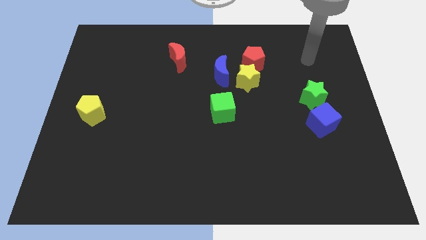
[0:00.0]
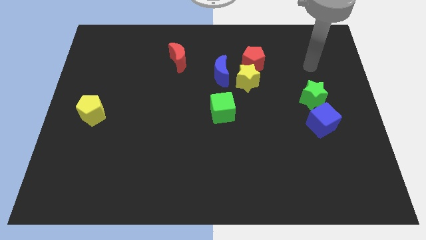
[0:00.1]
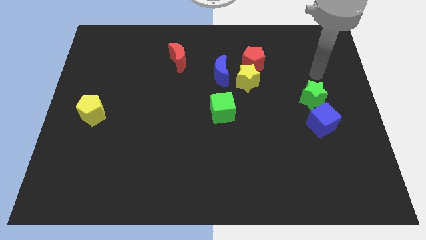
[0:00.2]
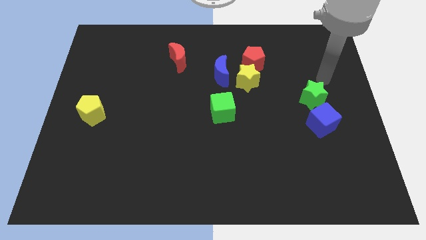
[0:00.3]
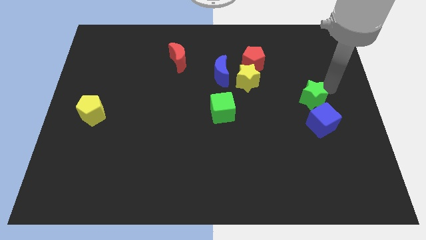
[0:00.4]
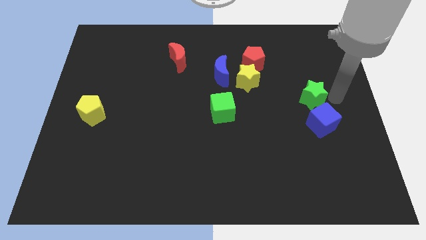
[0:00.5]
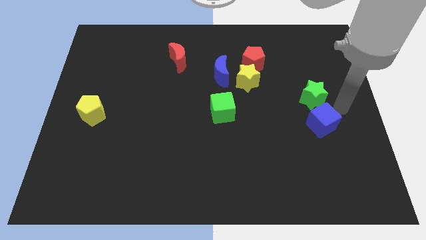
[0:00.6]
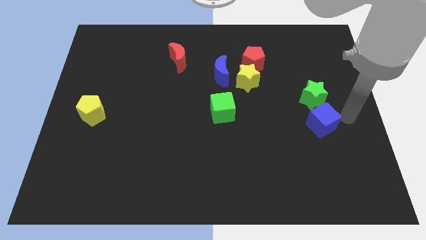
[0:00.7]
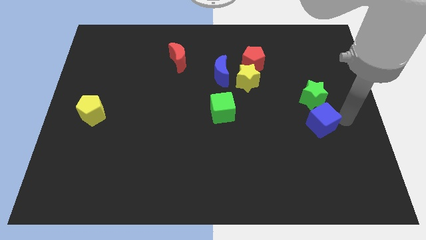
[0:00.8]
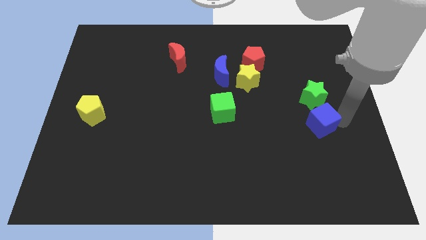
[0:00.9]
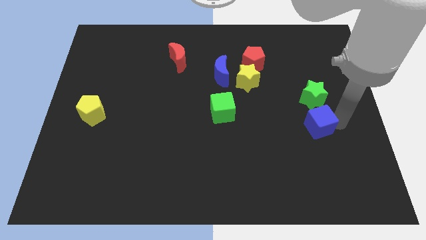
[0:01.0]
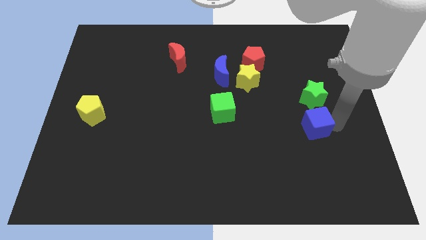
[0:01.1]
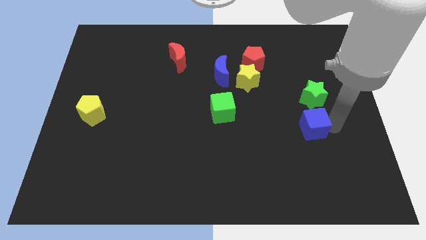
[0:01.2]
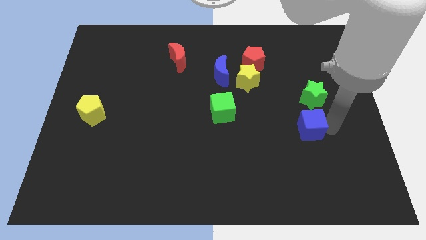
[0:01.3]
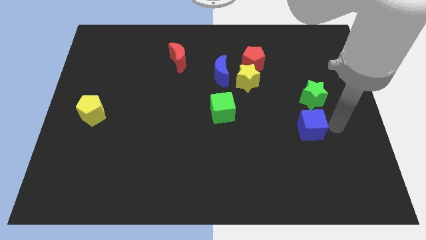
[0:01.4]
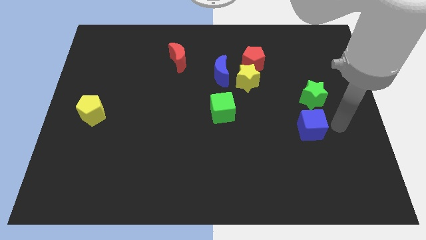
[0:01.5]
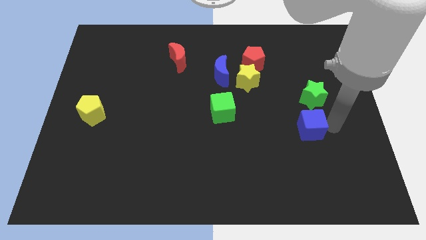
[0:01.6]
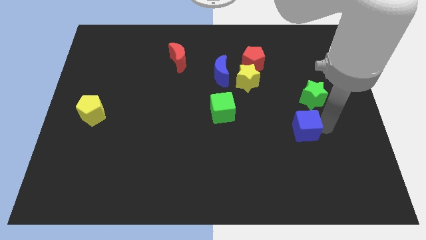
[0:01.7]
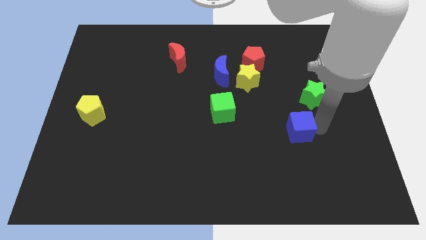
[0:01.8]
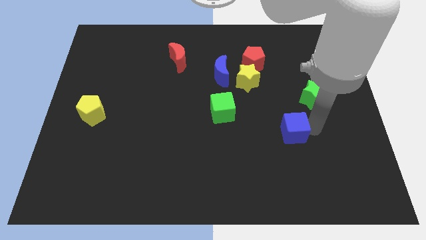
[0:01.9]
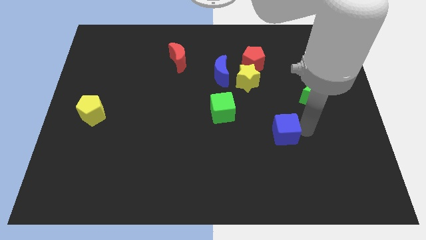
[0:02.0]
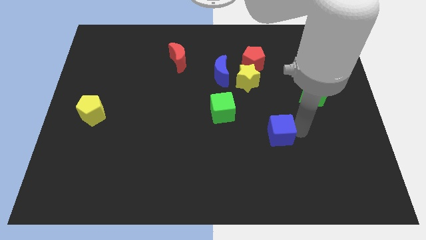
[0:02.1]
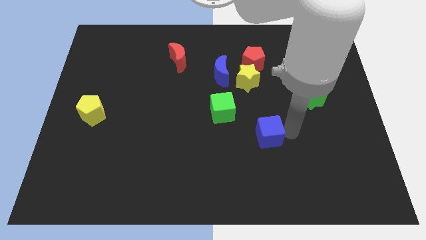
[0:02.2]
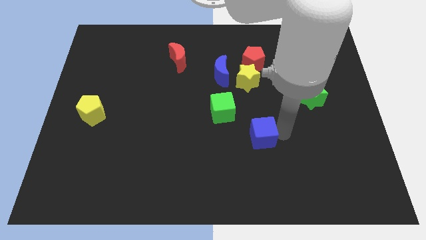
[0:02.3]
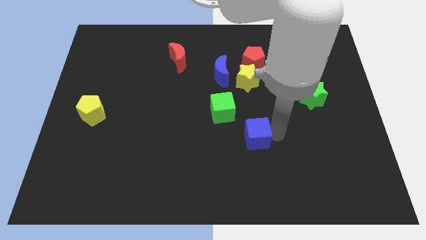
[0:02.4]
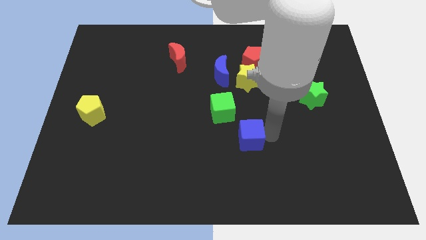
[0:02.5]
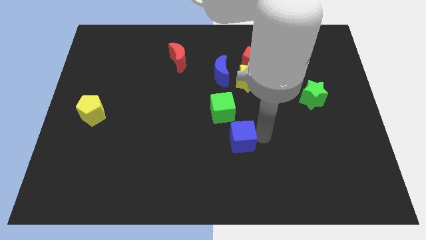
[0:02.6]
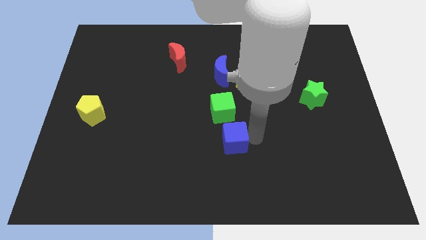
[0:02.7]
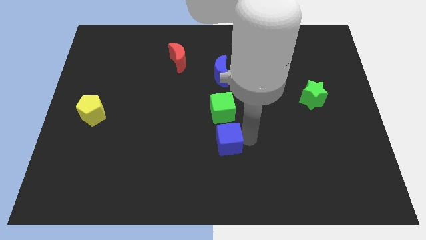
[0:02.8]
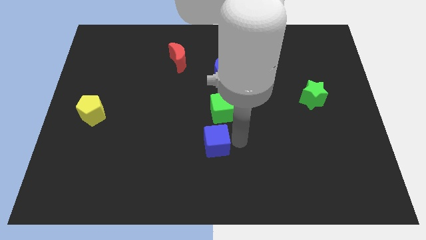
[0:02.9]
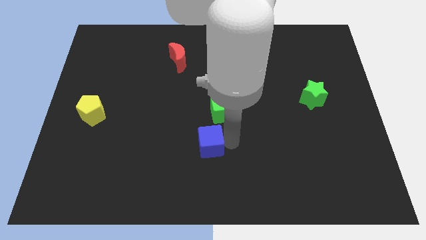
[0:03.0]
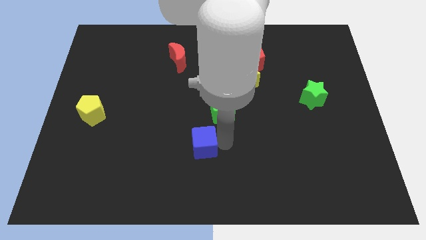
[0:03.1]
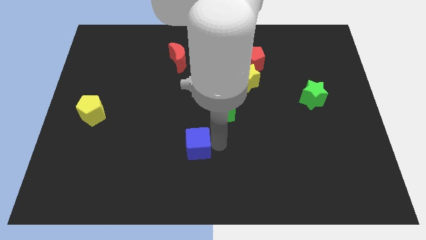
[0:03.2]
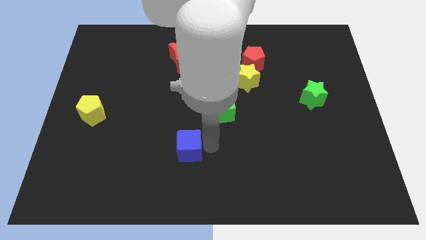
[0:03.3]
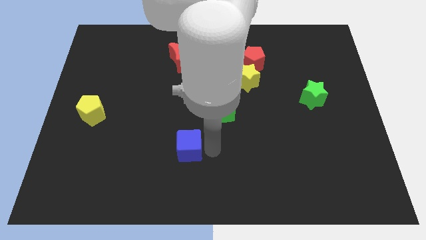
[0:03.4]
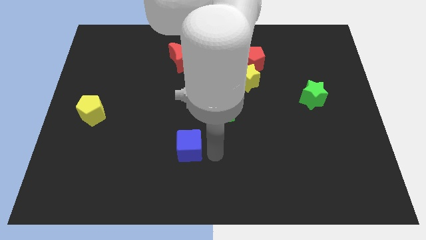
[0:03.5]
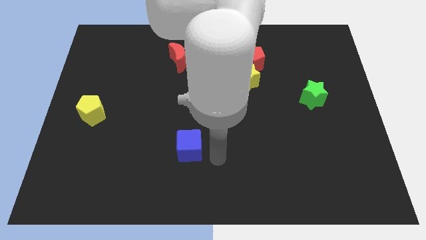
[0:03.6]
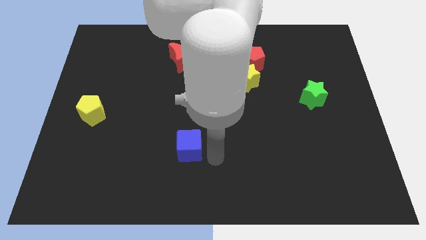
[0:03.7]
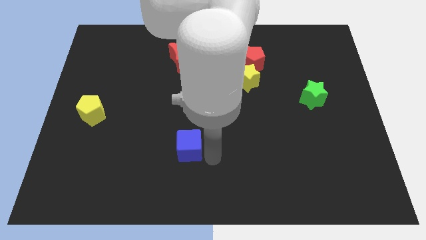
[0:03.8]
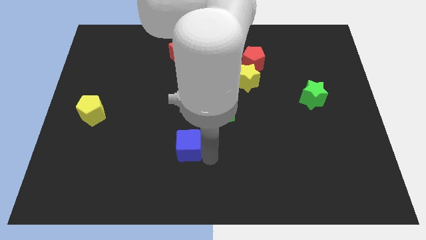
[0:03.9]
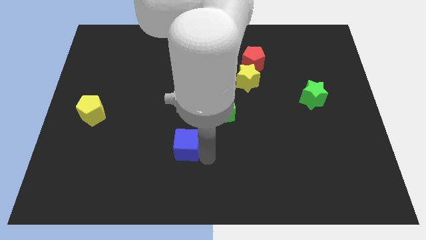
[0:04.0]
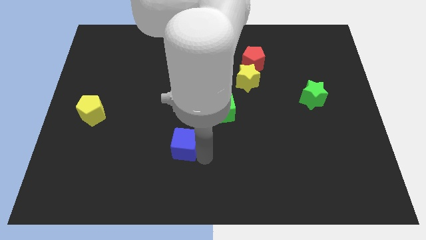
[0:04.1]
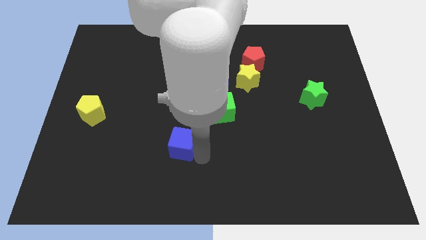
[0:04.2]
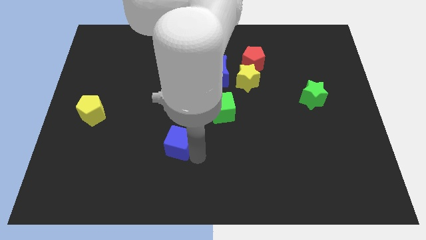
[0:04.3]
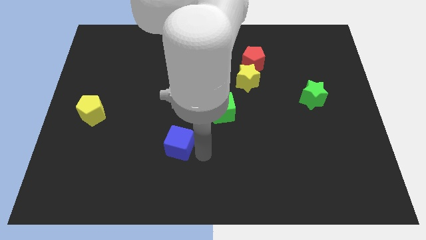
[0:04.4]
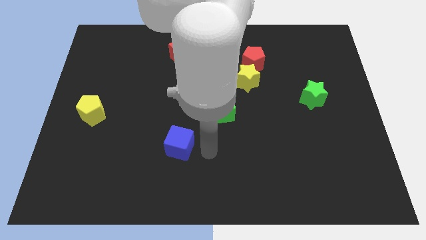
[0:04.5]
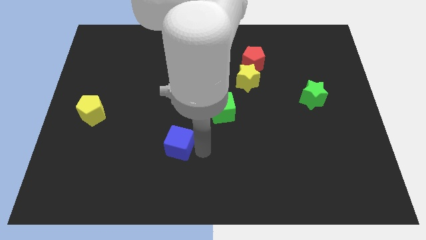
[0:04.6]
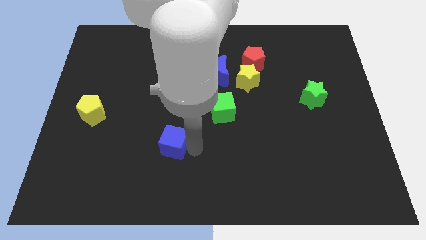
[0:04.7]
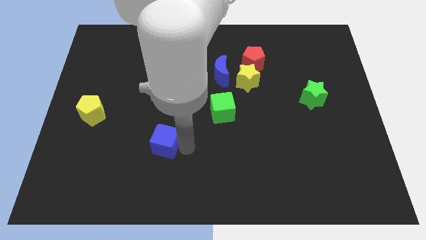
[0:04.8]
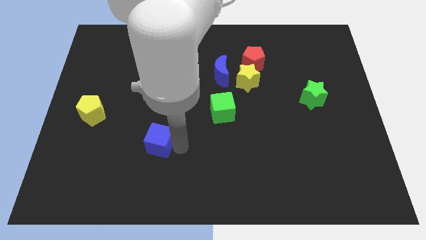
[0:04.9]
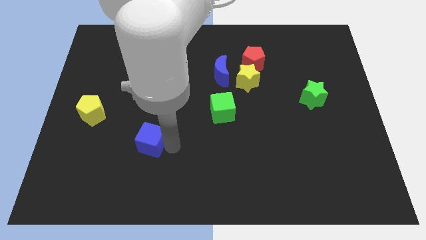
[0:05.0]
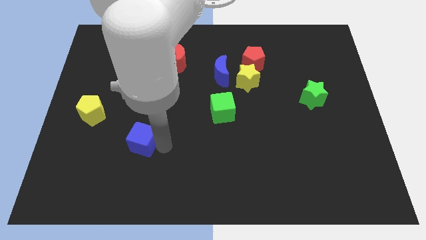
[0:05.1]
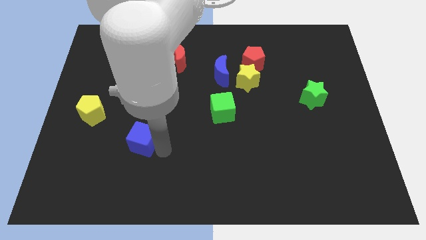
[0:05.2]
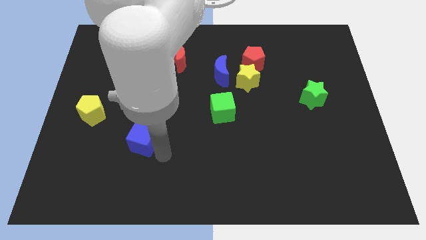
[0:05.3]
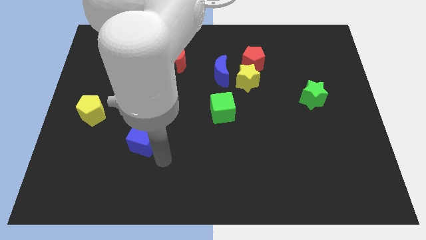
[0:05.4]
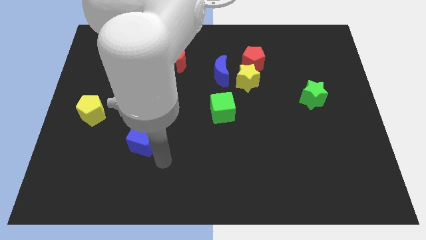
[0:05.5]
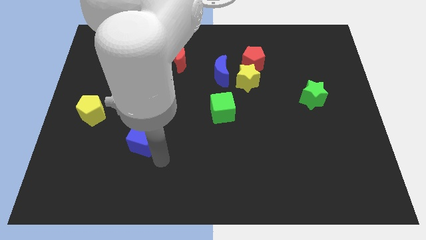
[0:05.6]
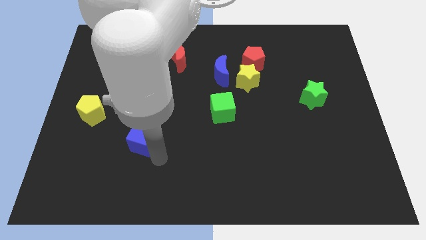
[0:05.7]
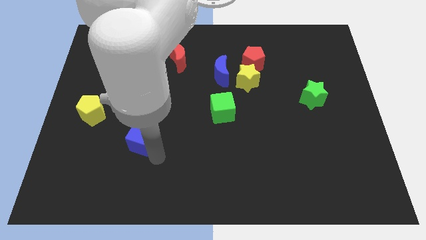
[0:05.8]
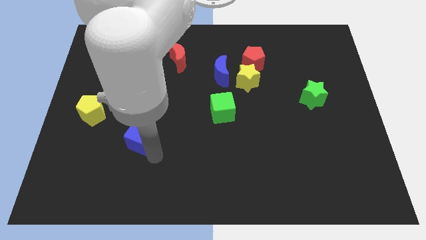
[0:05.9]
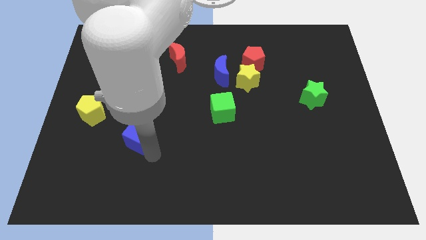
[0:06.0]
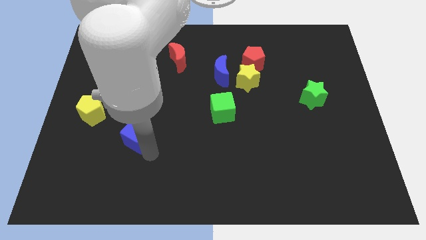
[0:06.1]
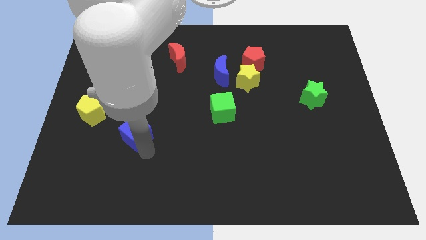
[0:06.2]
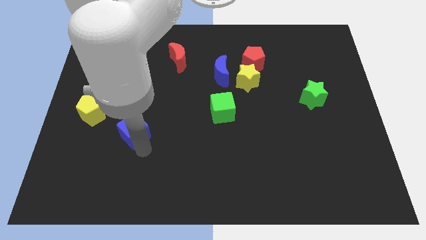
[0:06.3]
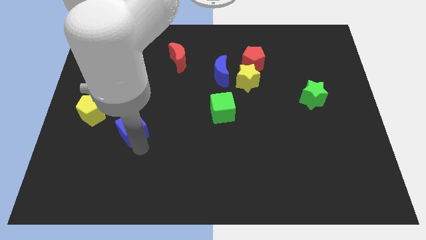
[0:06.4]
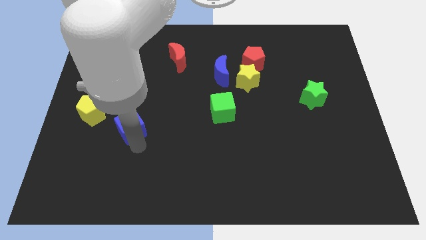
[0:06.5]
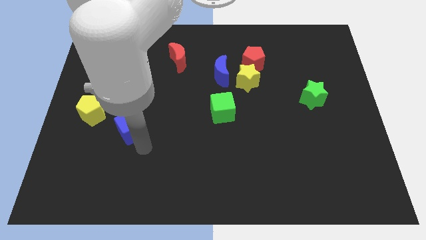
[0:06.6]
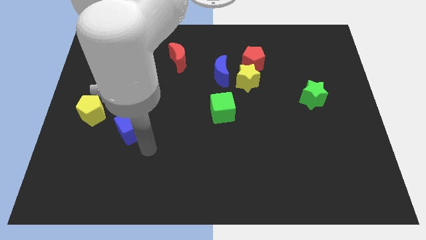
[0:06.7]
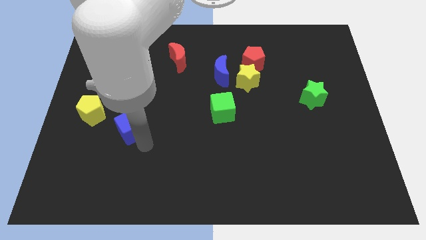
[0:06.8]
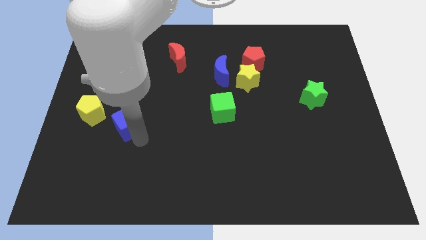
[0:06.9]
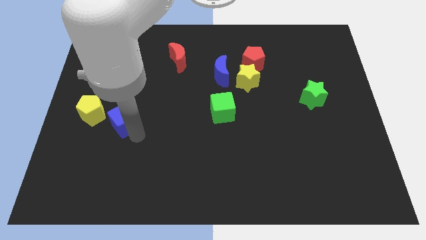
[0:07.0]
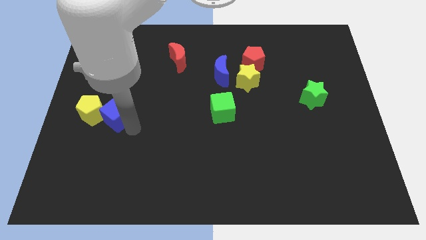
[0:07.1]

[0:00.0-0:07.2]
slide the blue cube to the yellow pentagon
